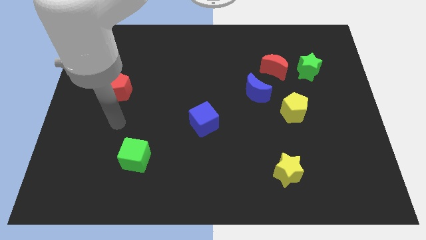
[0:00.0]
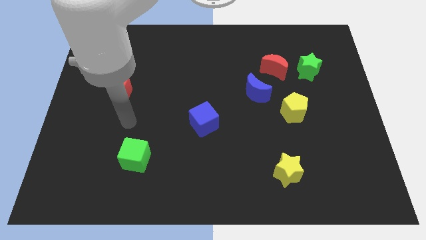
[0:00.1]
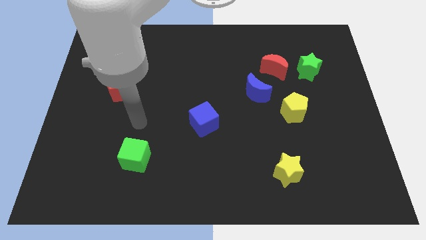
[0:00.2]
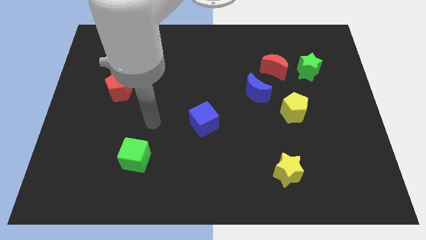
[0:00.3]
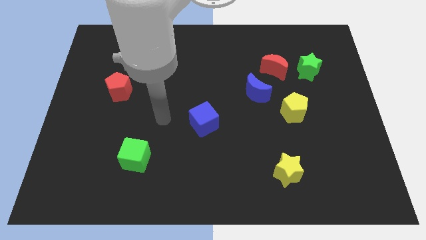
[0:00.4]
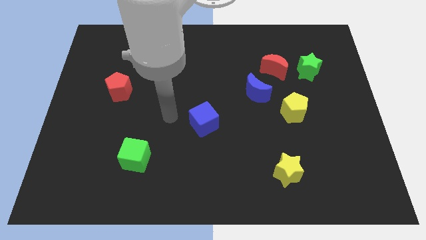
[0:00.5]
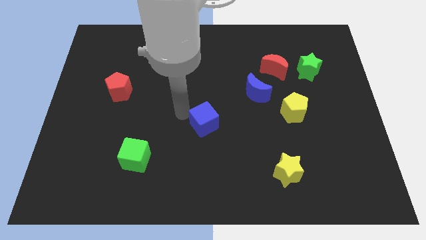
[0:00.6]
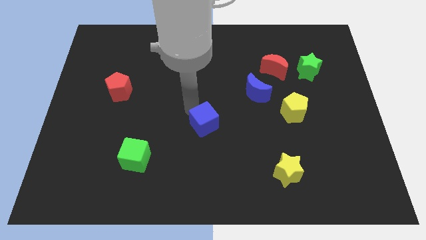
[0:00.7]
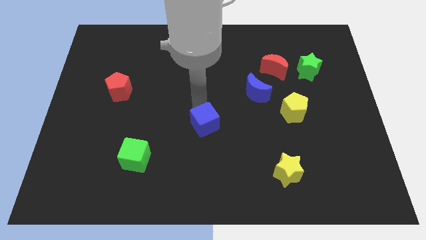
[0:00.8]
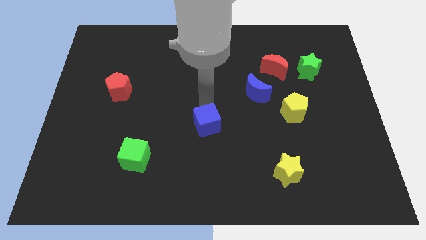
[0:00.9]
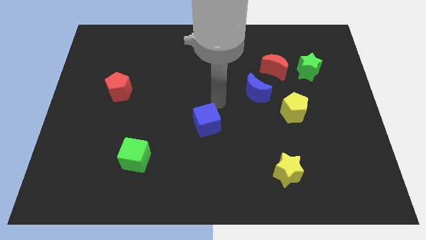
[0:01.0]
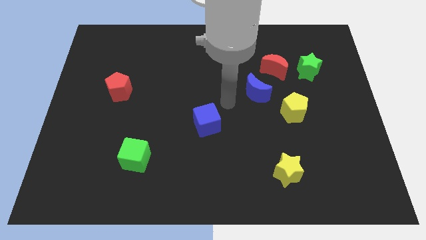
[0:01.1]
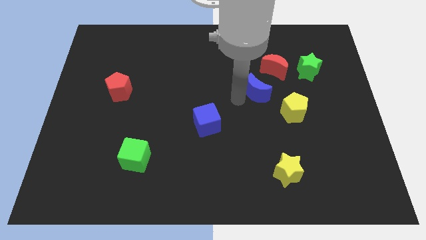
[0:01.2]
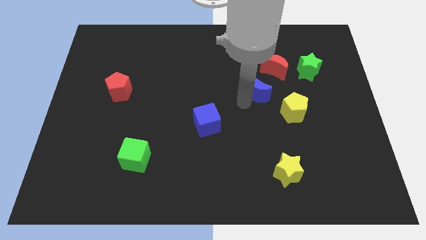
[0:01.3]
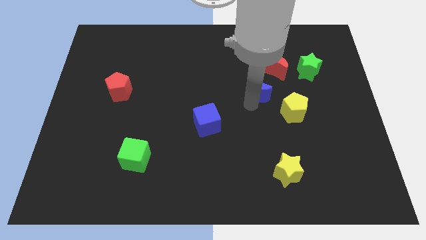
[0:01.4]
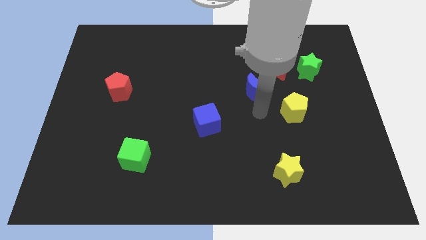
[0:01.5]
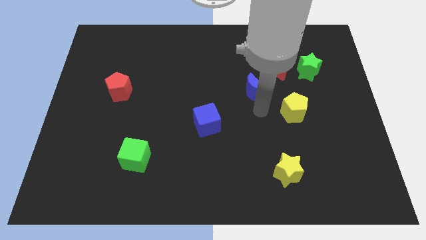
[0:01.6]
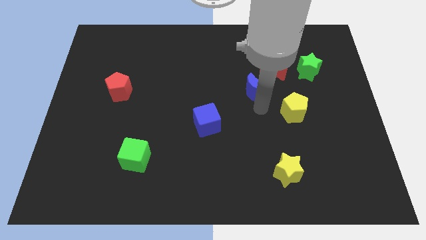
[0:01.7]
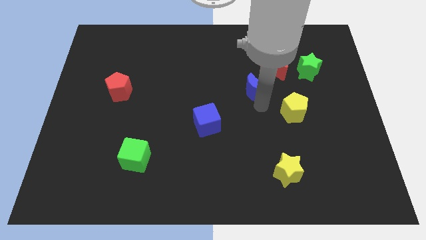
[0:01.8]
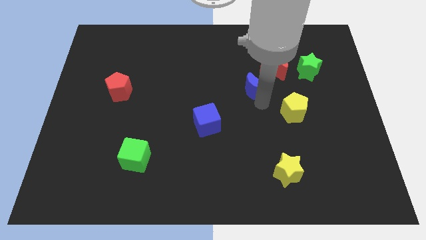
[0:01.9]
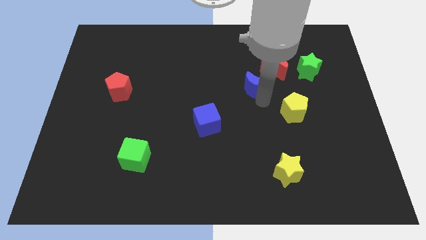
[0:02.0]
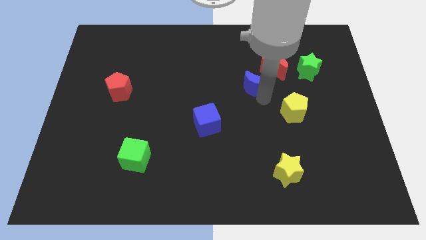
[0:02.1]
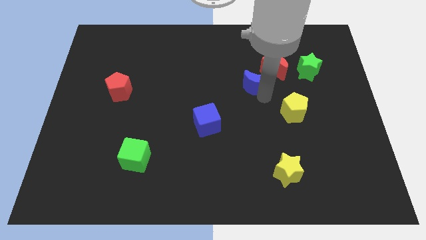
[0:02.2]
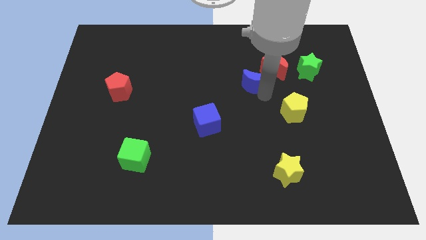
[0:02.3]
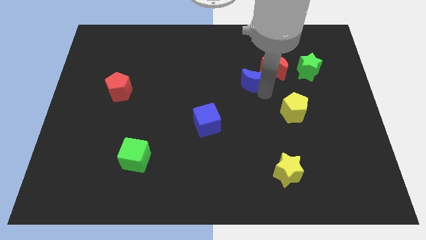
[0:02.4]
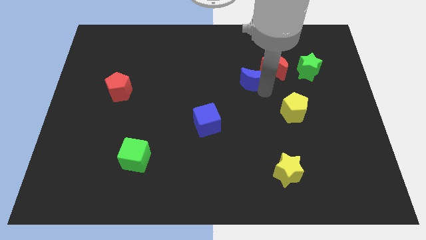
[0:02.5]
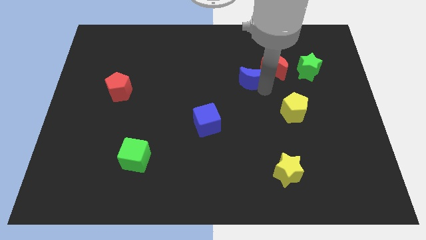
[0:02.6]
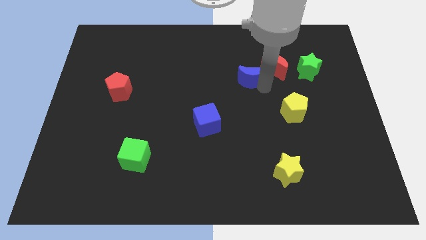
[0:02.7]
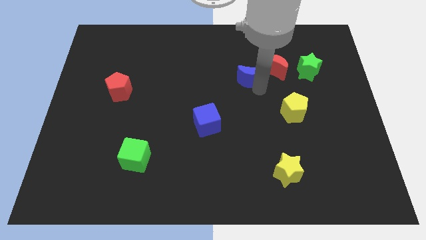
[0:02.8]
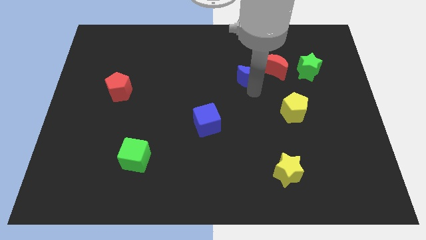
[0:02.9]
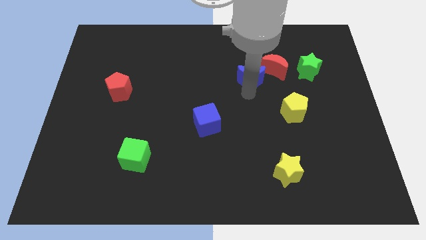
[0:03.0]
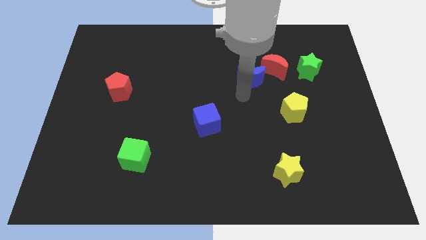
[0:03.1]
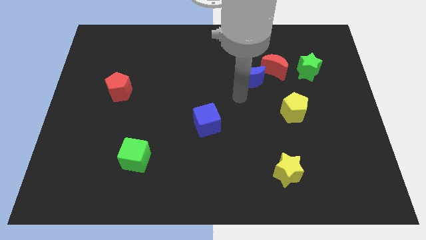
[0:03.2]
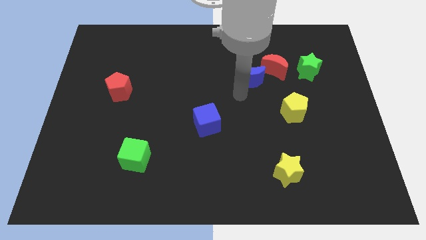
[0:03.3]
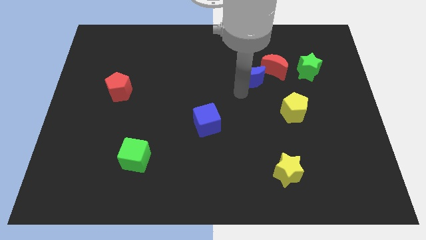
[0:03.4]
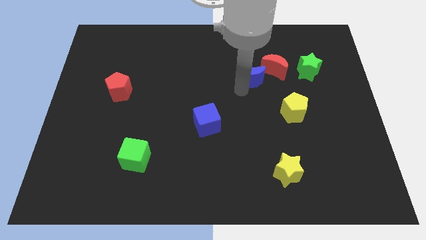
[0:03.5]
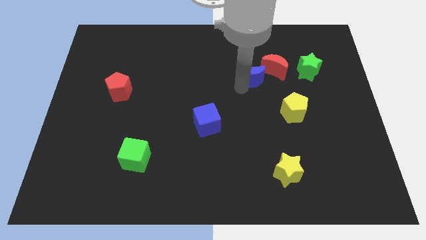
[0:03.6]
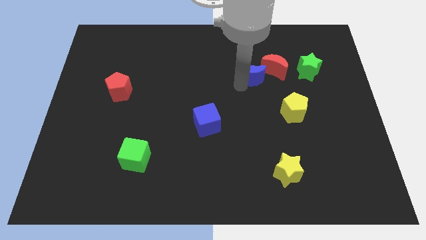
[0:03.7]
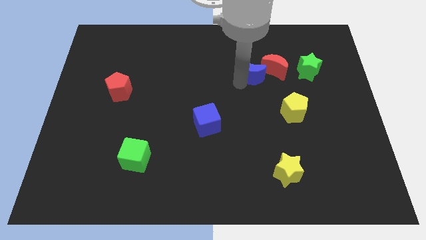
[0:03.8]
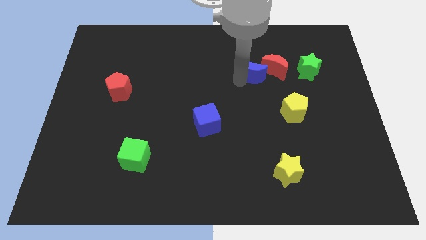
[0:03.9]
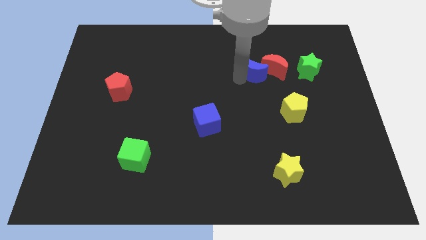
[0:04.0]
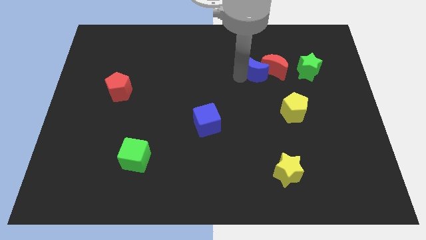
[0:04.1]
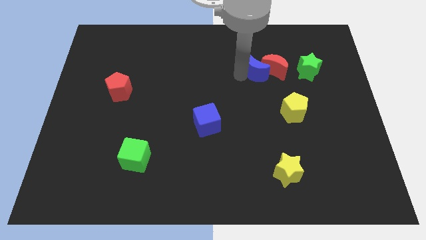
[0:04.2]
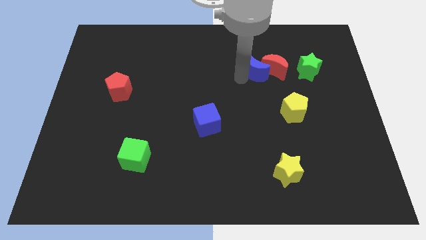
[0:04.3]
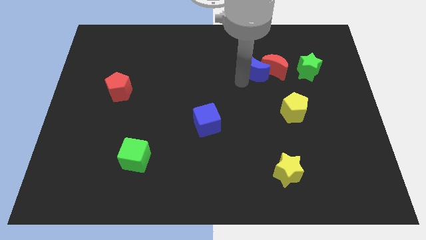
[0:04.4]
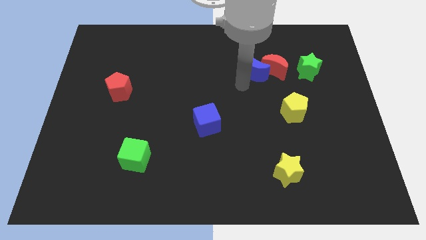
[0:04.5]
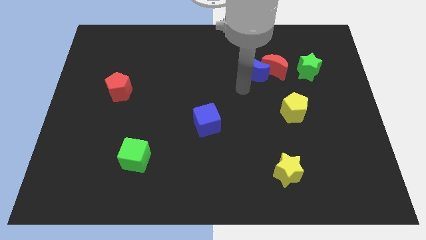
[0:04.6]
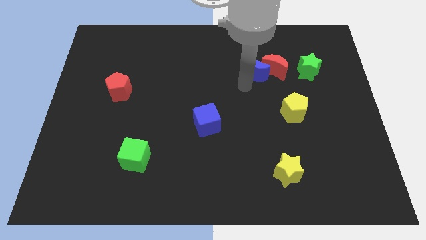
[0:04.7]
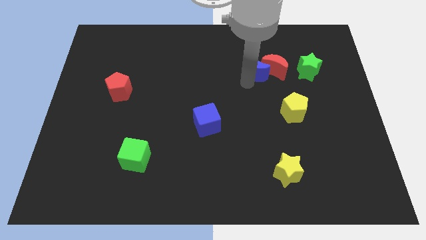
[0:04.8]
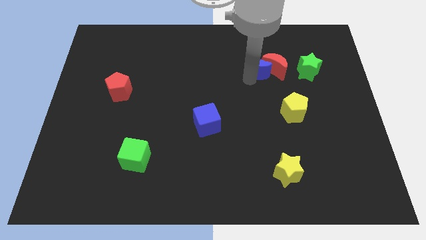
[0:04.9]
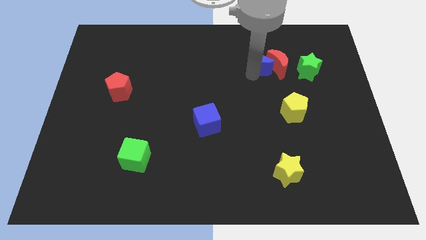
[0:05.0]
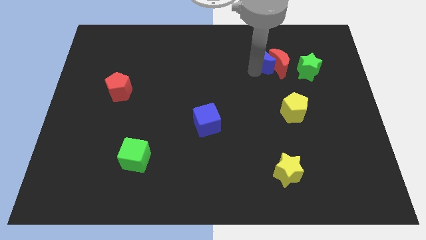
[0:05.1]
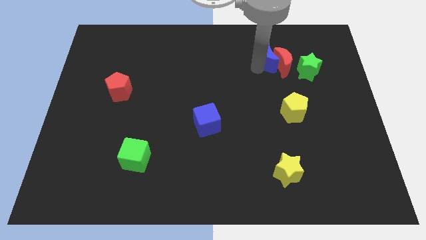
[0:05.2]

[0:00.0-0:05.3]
slide the blue moon to the top left of the green star

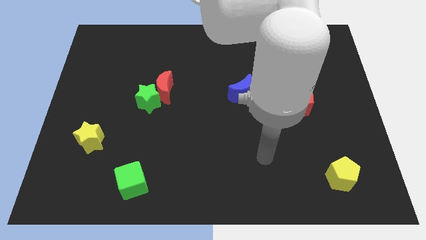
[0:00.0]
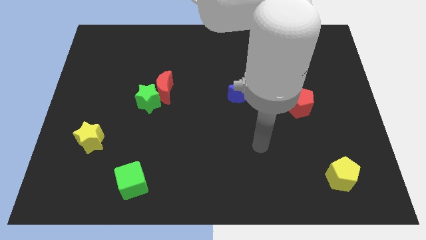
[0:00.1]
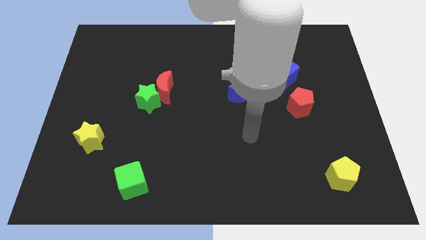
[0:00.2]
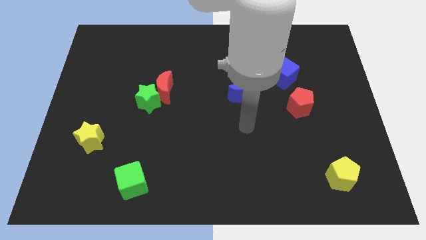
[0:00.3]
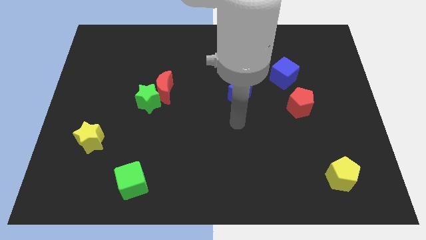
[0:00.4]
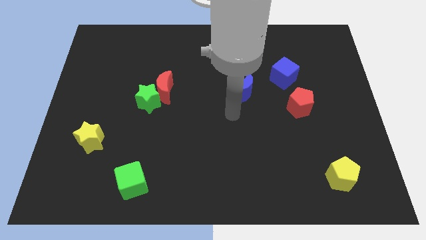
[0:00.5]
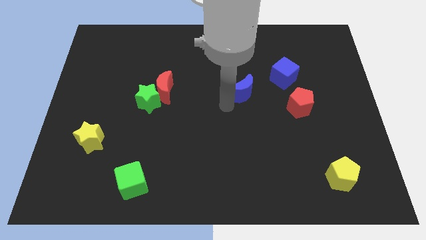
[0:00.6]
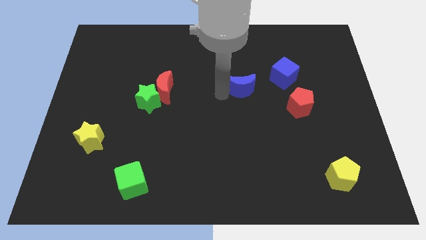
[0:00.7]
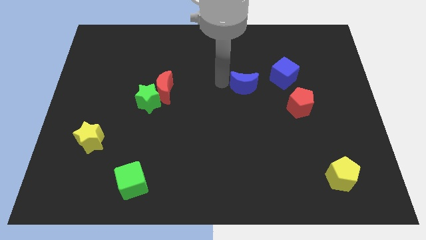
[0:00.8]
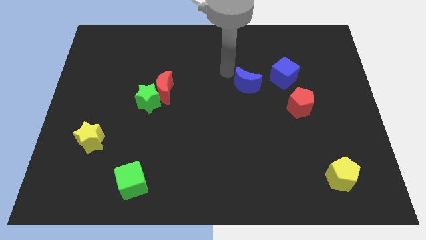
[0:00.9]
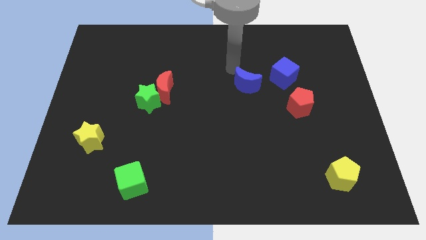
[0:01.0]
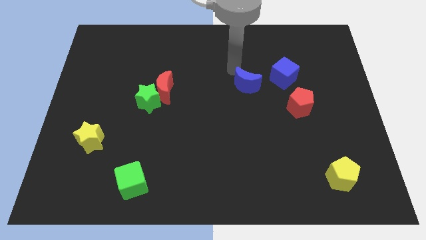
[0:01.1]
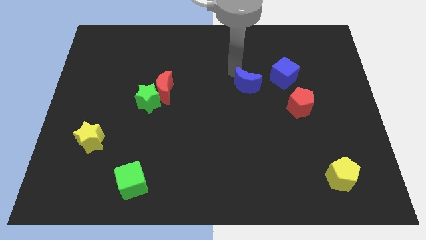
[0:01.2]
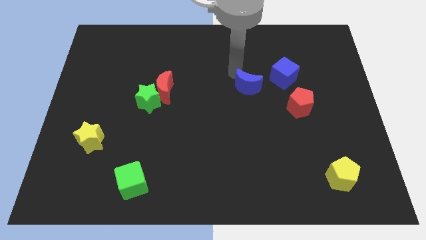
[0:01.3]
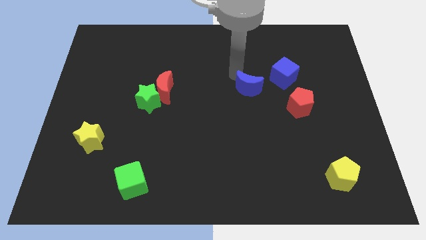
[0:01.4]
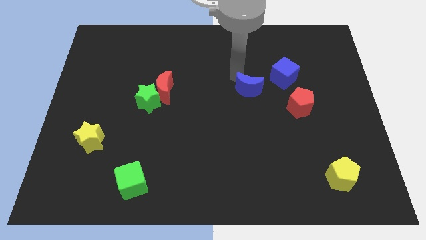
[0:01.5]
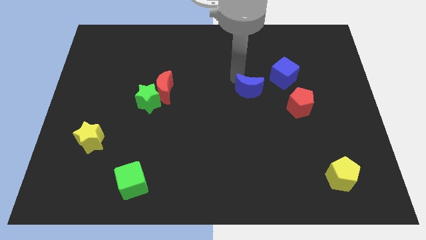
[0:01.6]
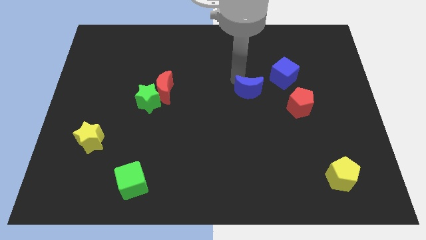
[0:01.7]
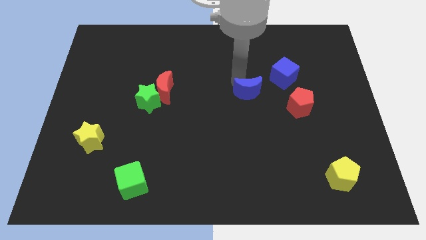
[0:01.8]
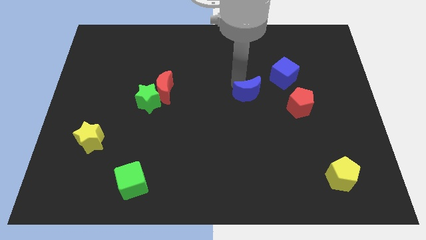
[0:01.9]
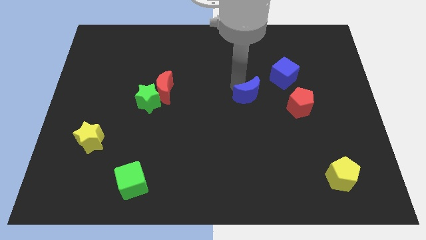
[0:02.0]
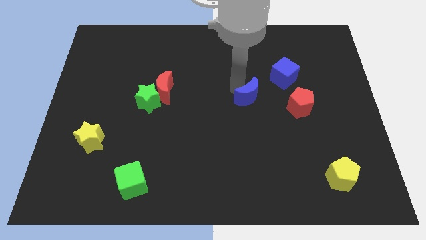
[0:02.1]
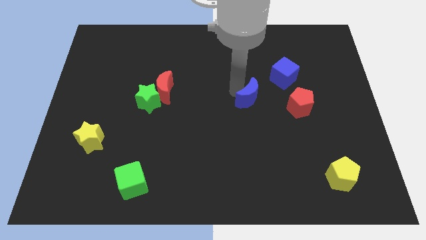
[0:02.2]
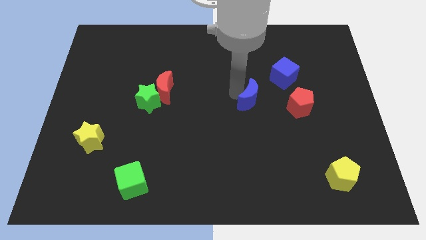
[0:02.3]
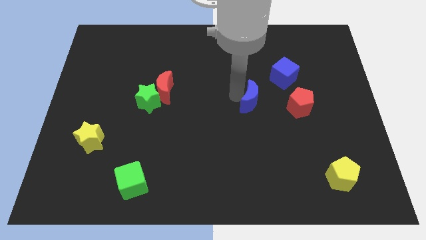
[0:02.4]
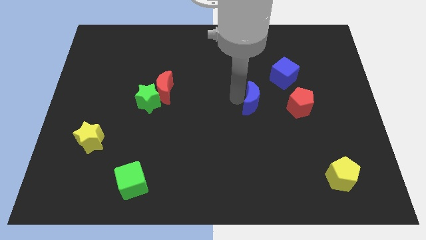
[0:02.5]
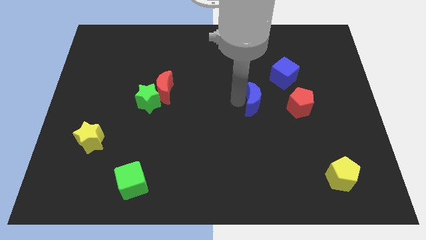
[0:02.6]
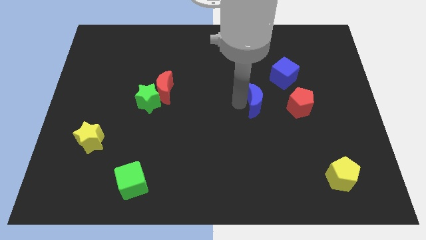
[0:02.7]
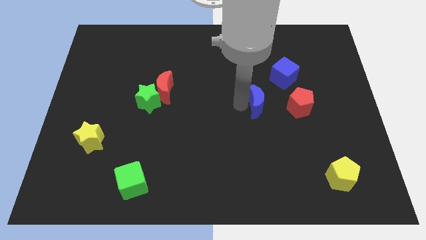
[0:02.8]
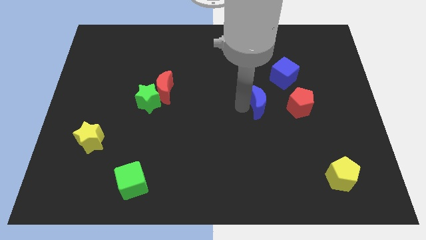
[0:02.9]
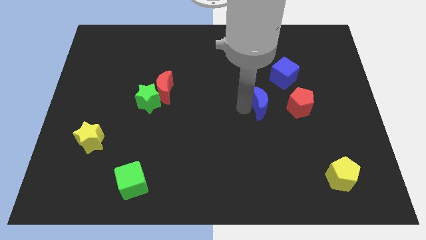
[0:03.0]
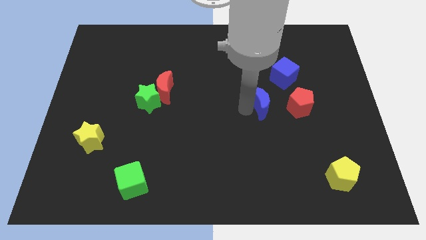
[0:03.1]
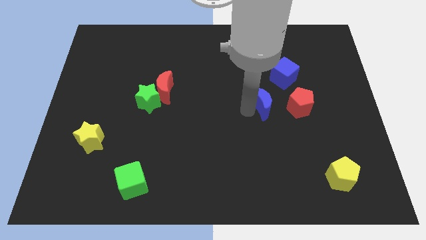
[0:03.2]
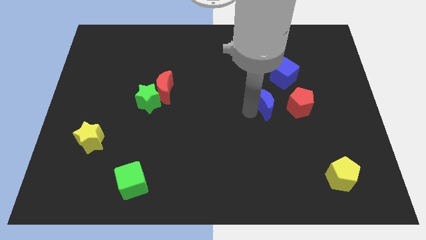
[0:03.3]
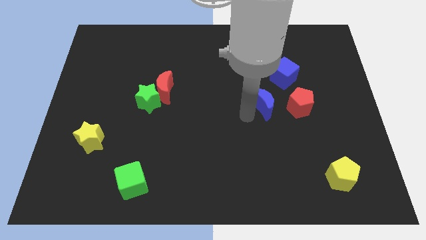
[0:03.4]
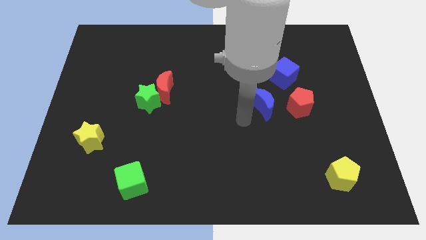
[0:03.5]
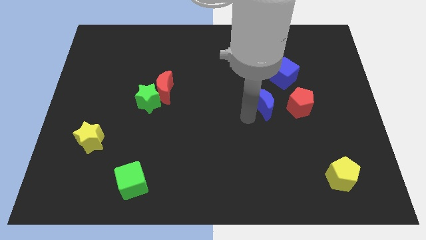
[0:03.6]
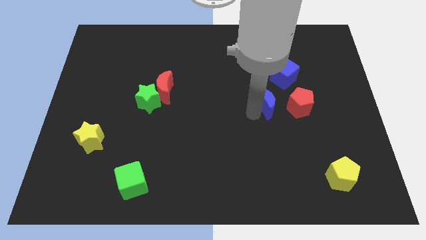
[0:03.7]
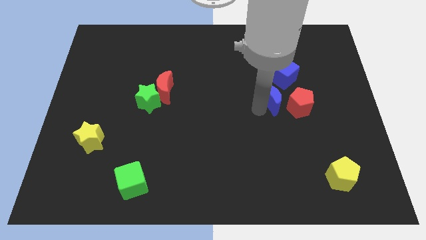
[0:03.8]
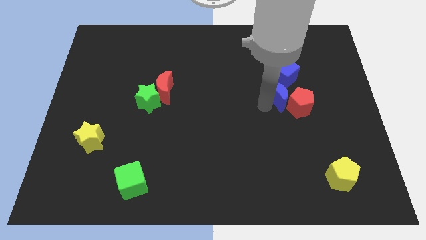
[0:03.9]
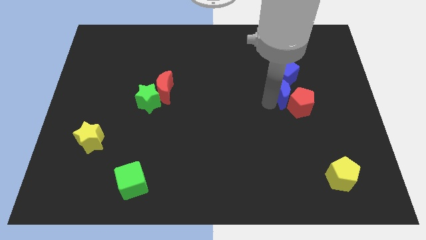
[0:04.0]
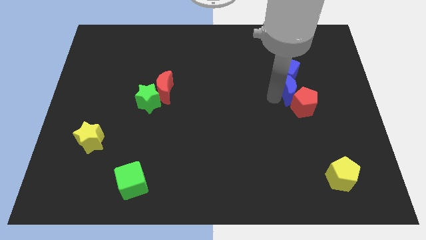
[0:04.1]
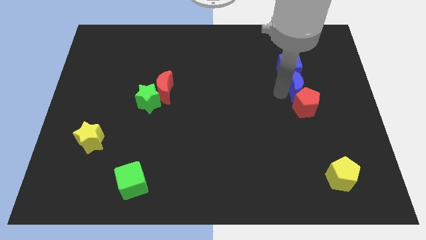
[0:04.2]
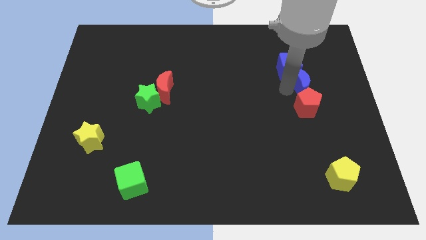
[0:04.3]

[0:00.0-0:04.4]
slide the blue moon diagonally up and to the right of the red pentagon
